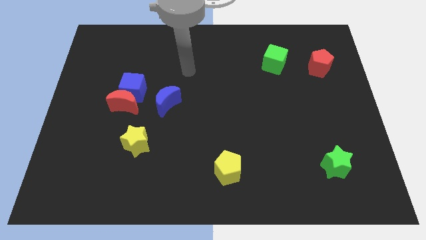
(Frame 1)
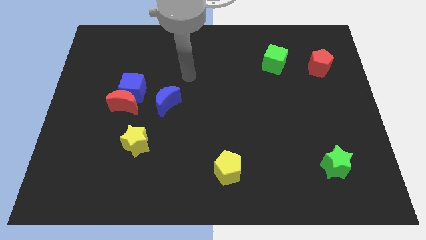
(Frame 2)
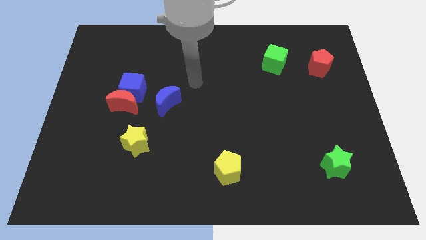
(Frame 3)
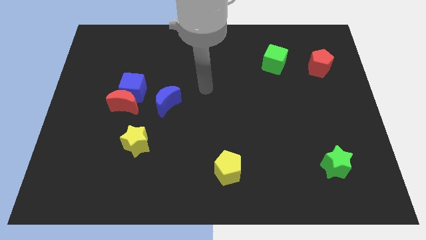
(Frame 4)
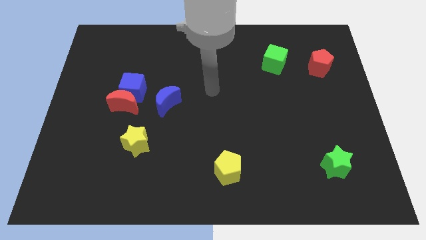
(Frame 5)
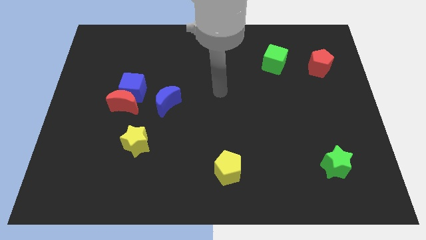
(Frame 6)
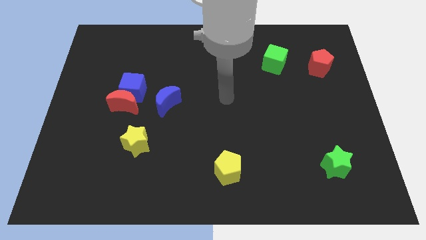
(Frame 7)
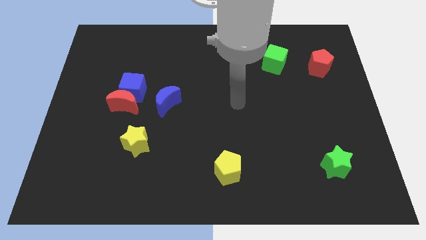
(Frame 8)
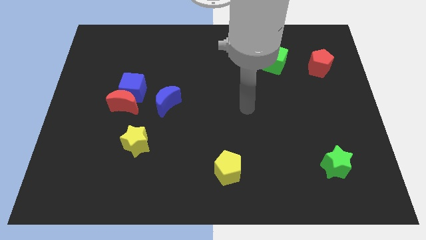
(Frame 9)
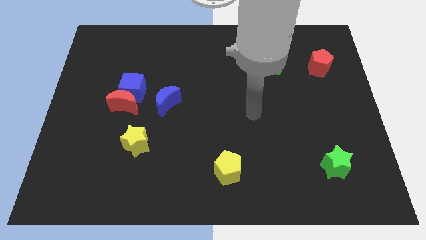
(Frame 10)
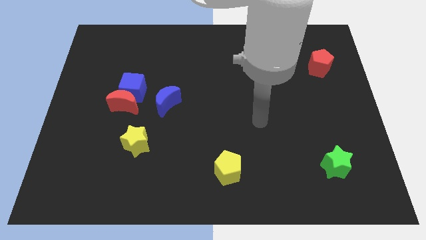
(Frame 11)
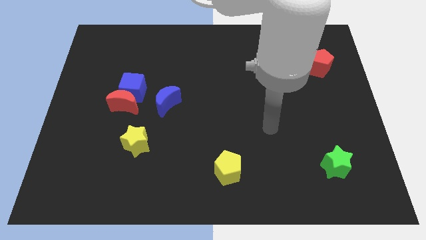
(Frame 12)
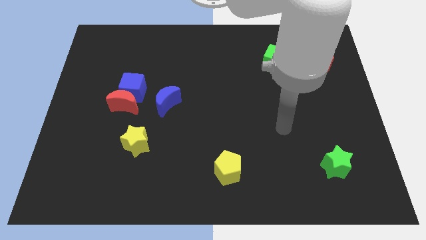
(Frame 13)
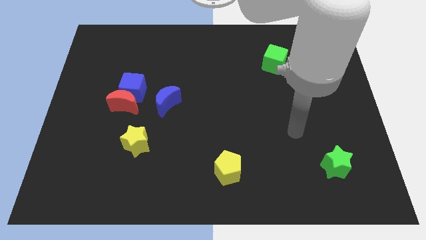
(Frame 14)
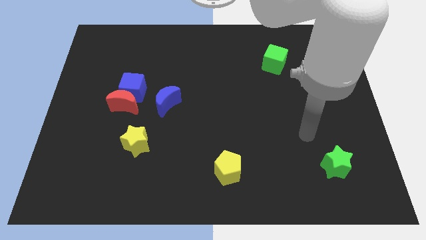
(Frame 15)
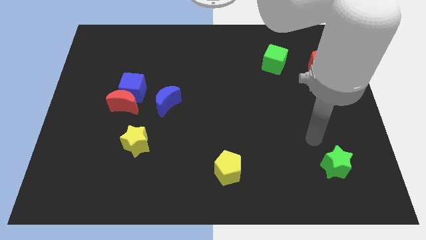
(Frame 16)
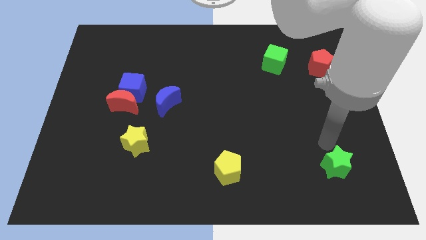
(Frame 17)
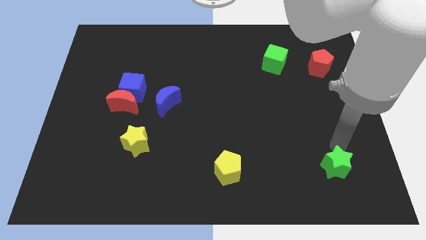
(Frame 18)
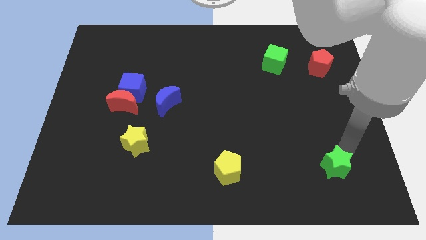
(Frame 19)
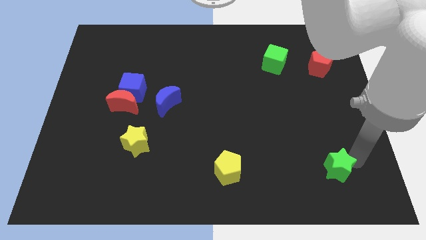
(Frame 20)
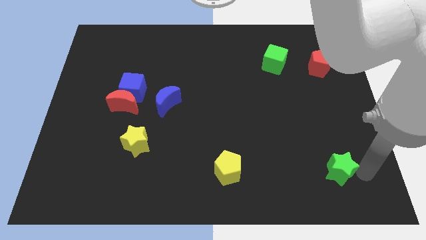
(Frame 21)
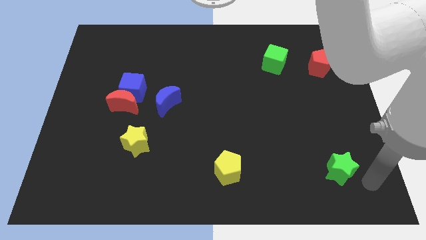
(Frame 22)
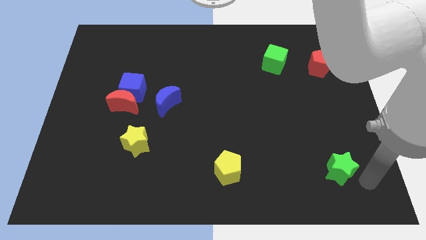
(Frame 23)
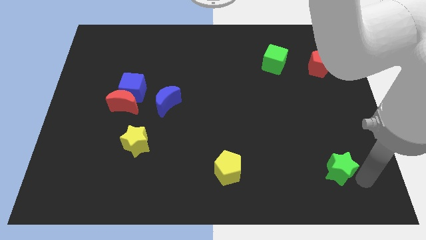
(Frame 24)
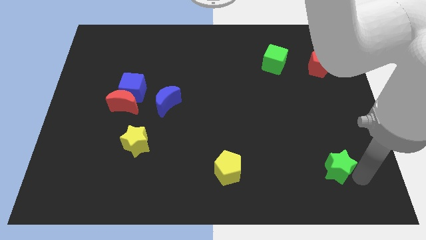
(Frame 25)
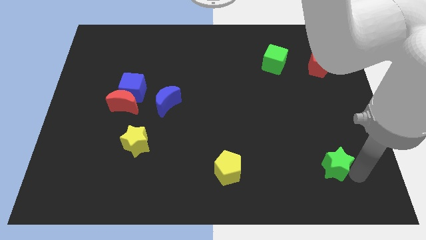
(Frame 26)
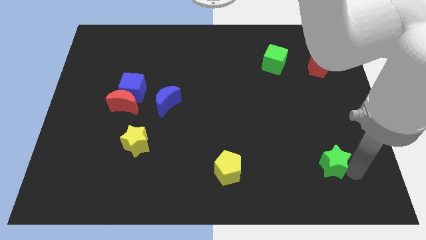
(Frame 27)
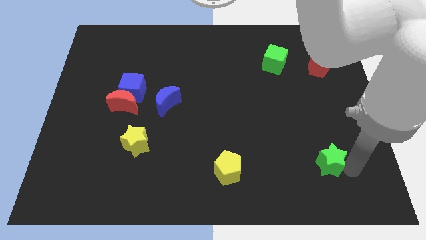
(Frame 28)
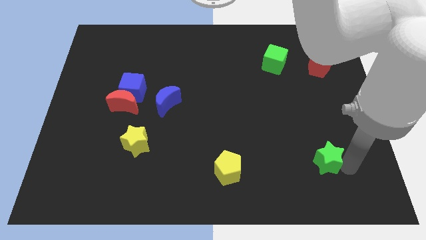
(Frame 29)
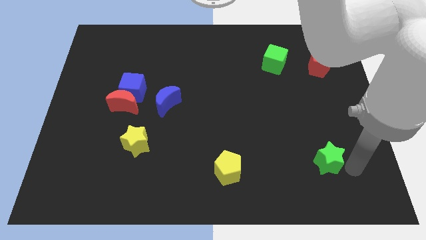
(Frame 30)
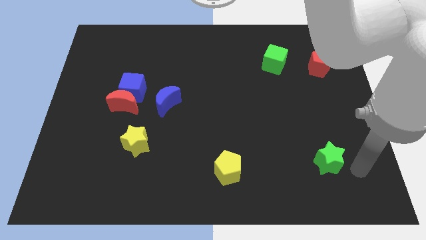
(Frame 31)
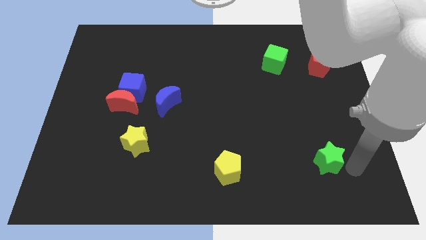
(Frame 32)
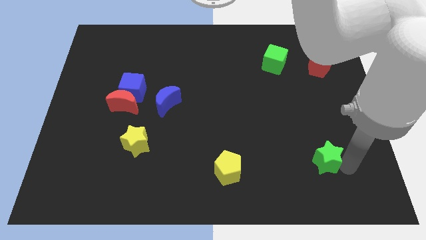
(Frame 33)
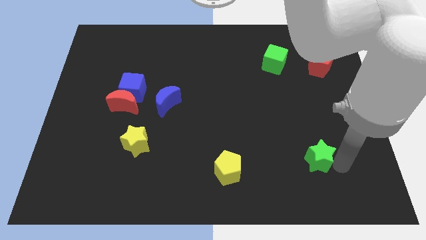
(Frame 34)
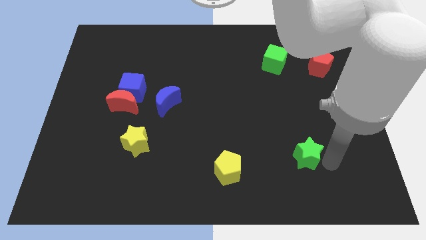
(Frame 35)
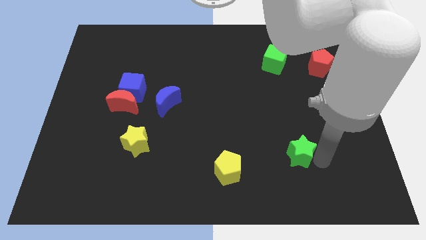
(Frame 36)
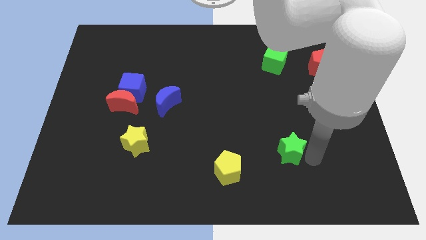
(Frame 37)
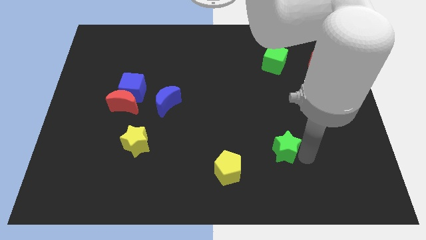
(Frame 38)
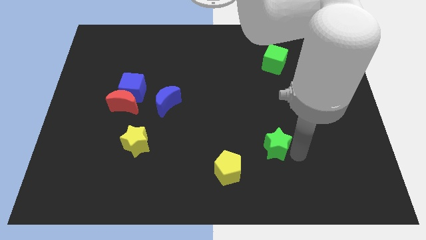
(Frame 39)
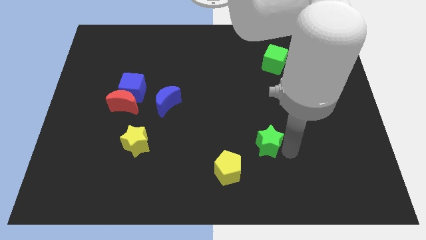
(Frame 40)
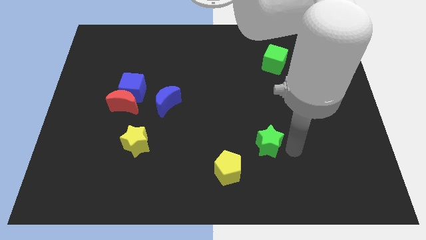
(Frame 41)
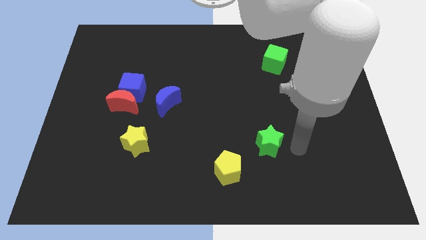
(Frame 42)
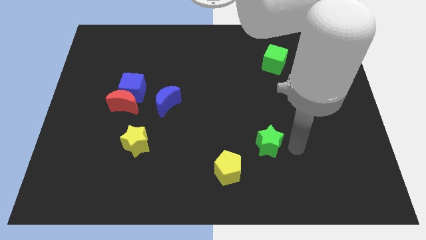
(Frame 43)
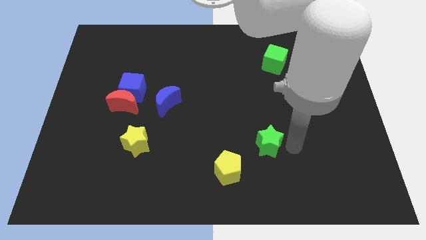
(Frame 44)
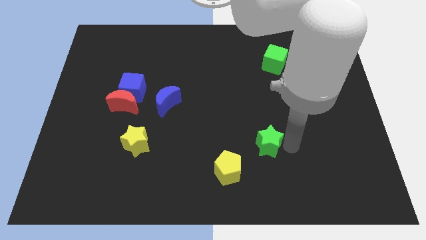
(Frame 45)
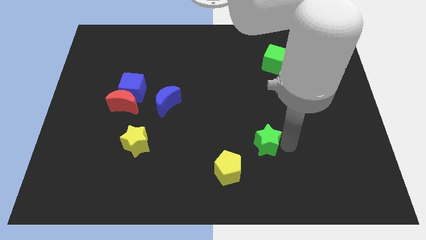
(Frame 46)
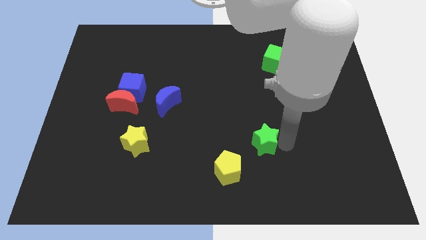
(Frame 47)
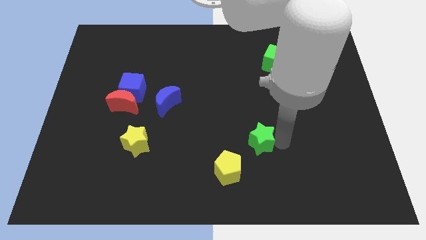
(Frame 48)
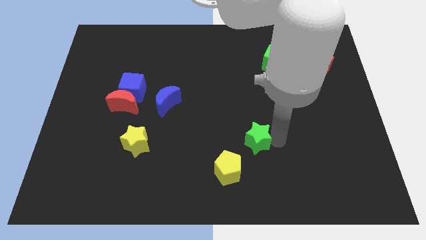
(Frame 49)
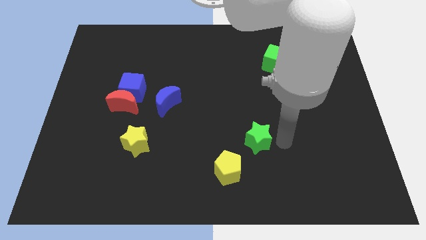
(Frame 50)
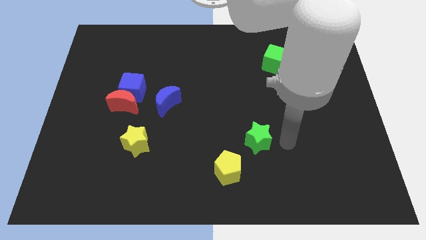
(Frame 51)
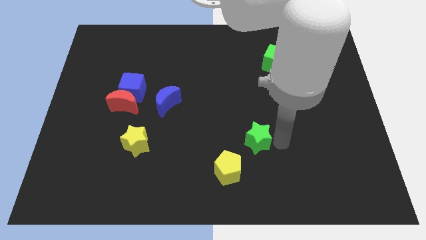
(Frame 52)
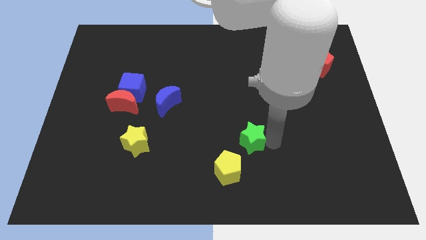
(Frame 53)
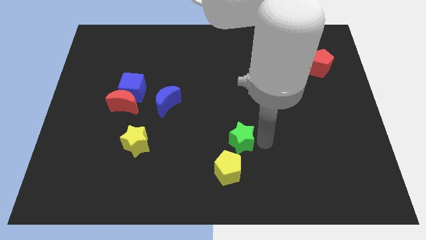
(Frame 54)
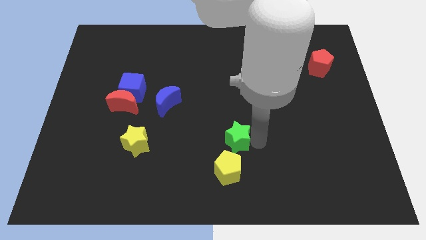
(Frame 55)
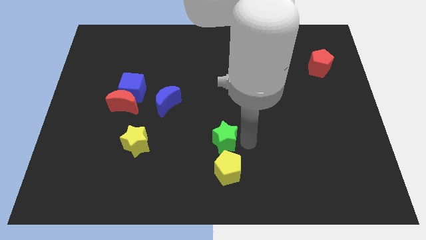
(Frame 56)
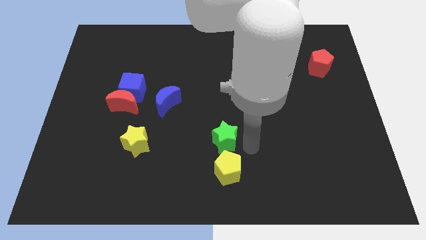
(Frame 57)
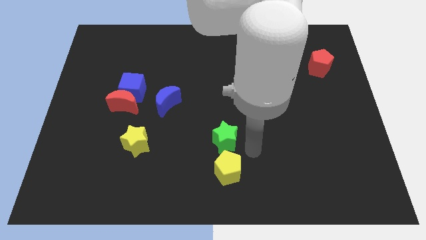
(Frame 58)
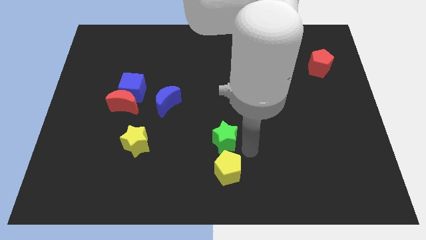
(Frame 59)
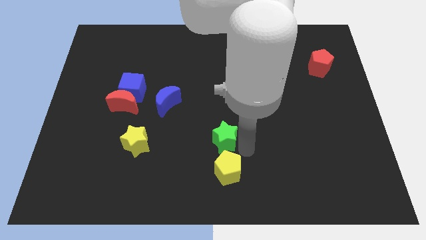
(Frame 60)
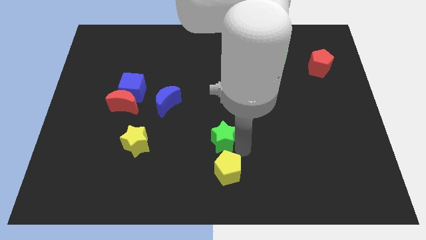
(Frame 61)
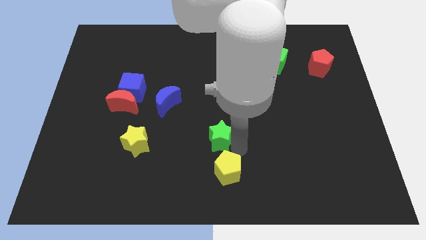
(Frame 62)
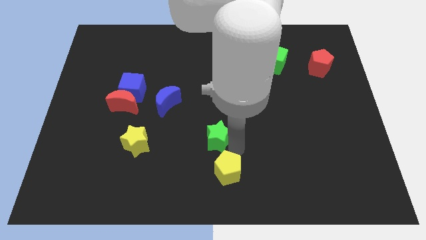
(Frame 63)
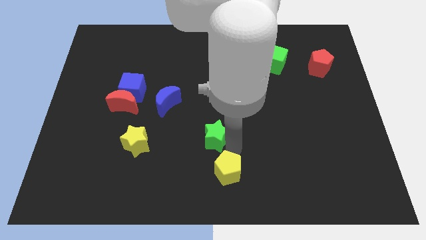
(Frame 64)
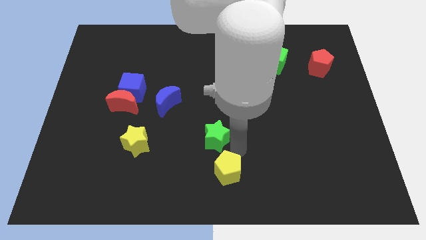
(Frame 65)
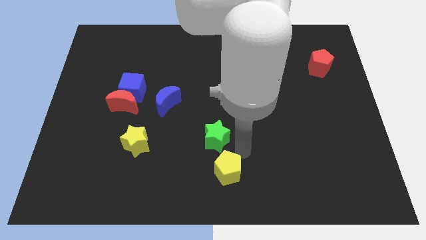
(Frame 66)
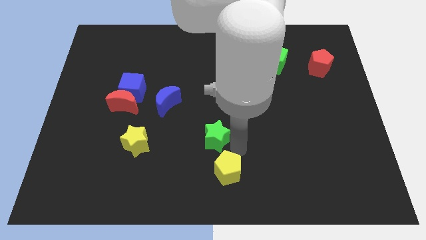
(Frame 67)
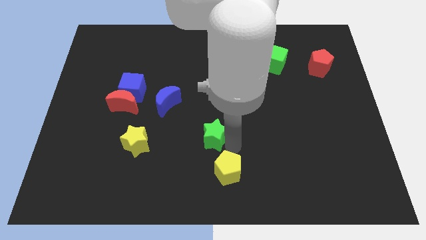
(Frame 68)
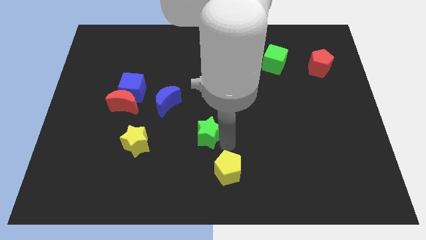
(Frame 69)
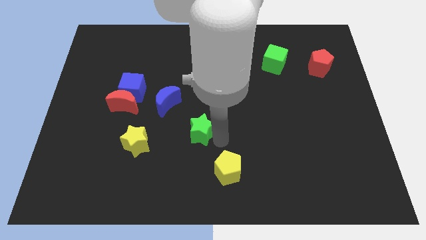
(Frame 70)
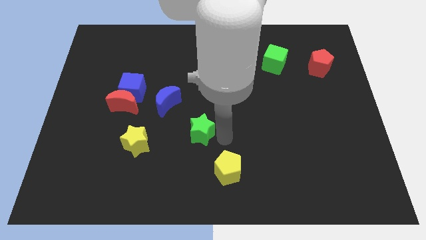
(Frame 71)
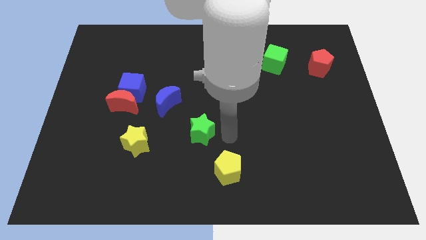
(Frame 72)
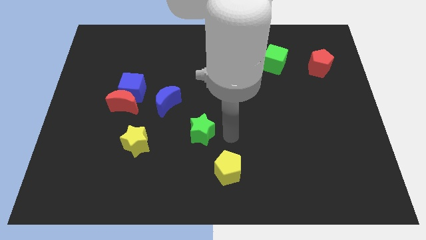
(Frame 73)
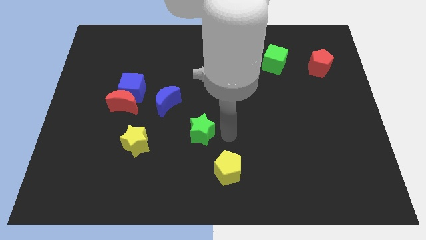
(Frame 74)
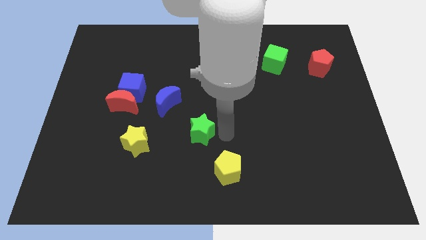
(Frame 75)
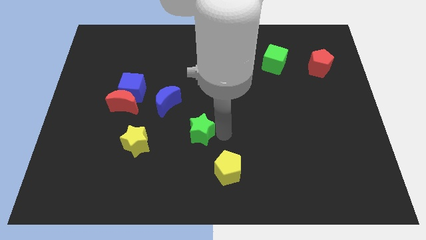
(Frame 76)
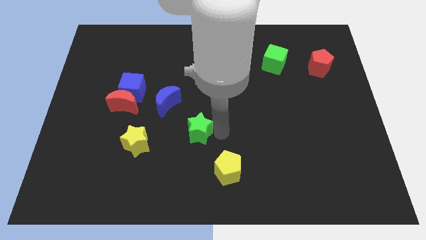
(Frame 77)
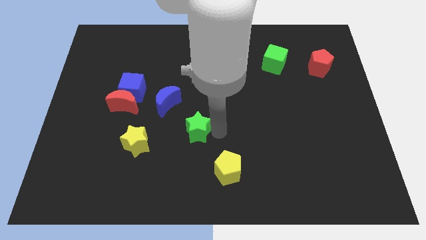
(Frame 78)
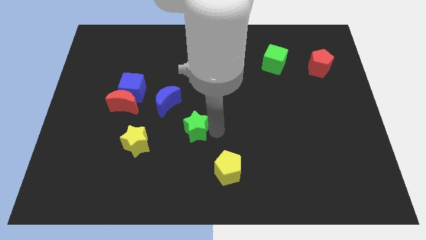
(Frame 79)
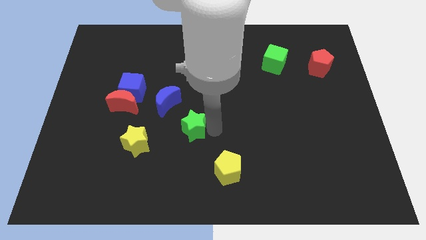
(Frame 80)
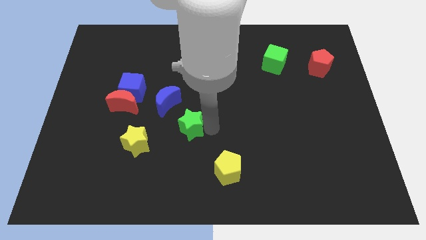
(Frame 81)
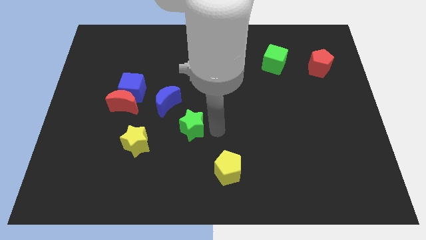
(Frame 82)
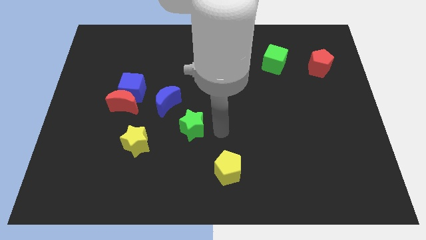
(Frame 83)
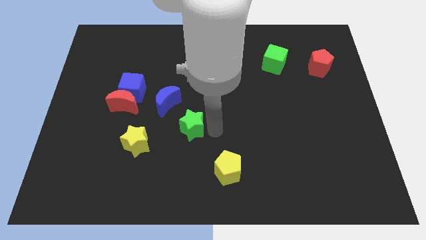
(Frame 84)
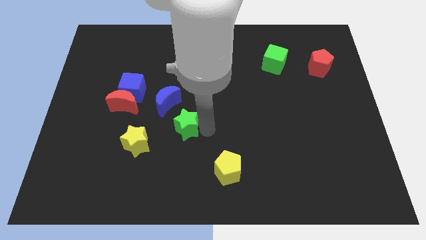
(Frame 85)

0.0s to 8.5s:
put the green star to the top right of the yellow star

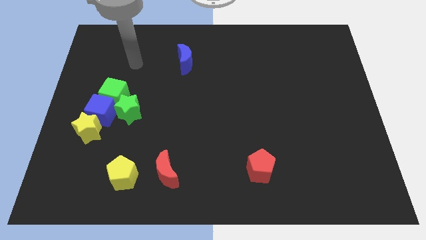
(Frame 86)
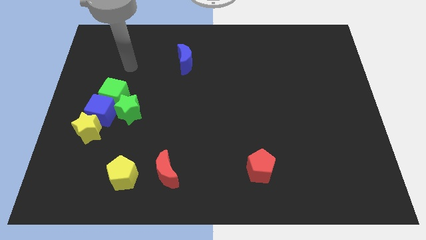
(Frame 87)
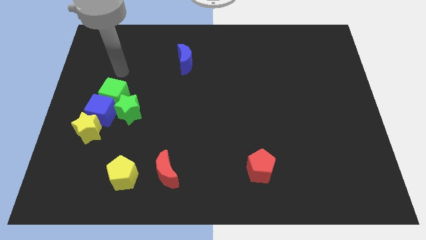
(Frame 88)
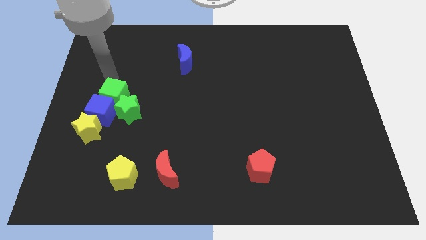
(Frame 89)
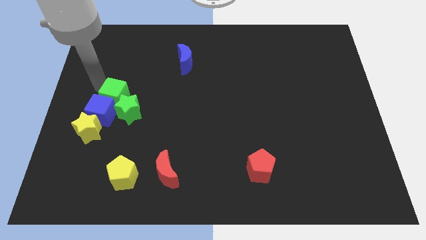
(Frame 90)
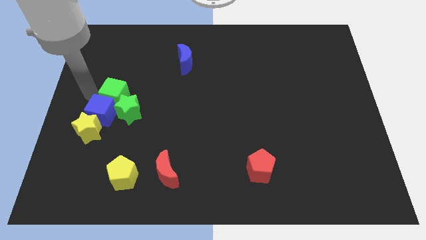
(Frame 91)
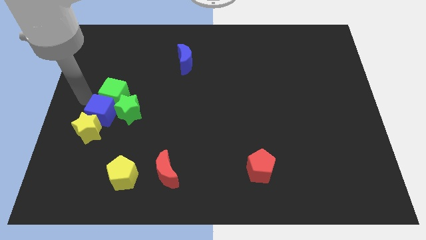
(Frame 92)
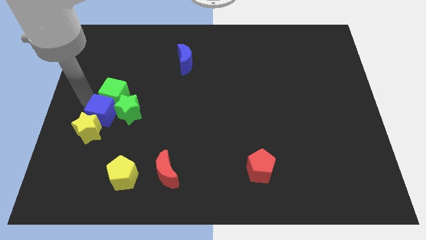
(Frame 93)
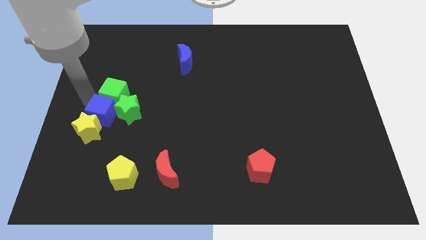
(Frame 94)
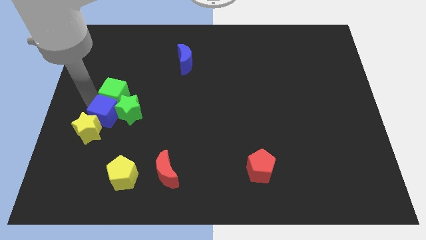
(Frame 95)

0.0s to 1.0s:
put the blue cube to the bottom right side of the green cube
